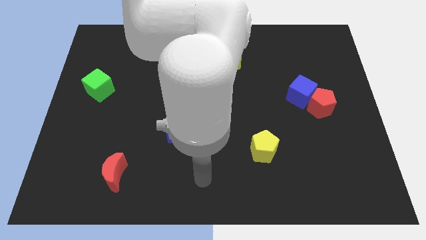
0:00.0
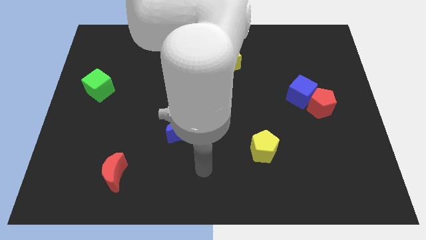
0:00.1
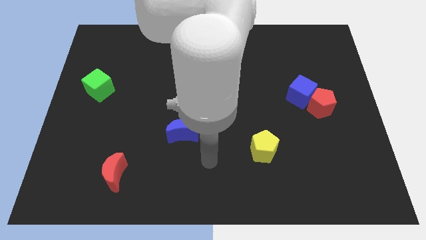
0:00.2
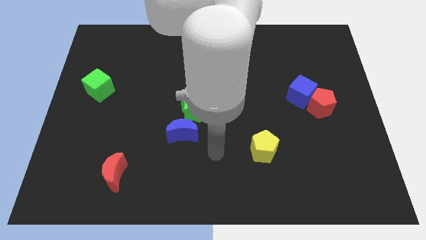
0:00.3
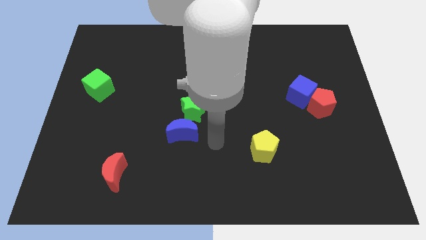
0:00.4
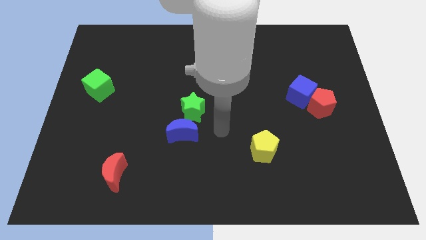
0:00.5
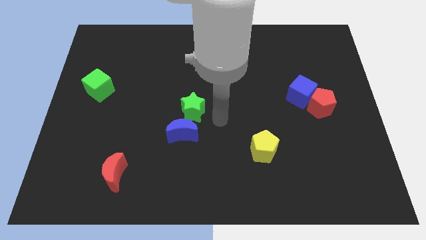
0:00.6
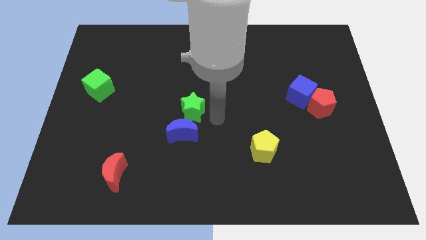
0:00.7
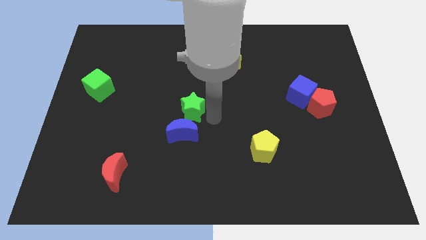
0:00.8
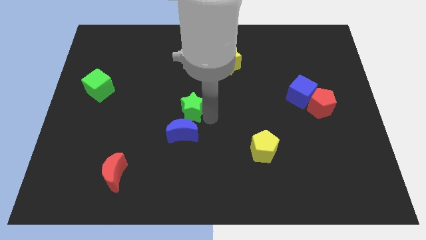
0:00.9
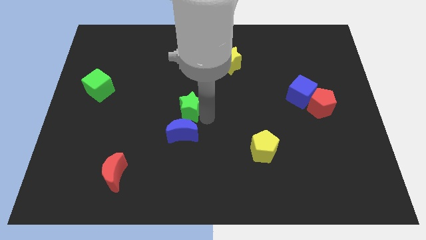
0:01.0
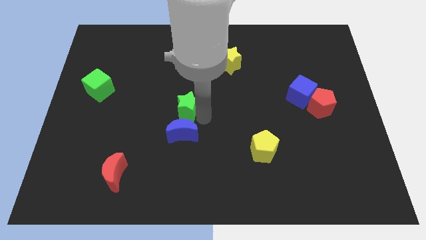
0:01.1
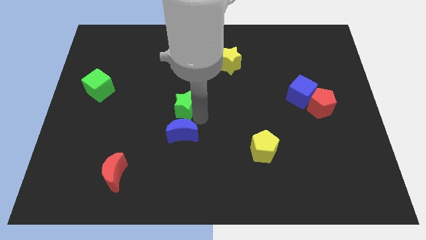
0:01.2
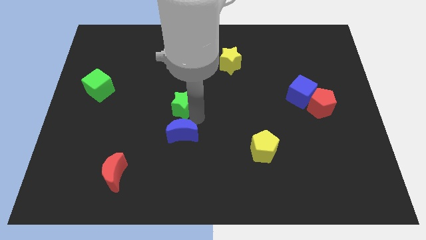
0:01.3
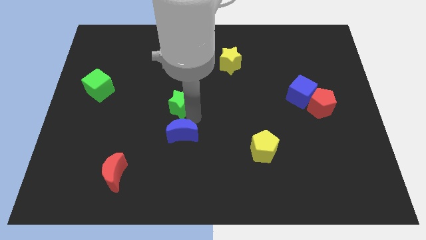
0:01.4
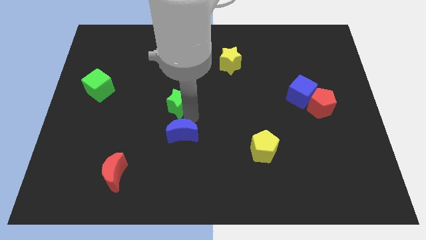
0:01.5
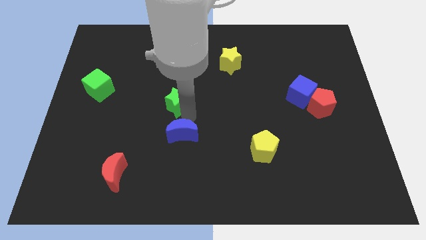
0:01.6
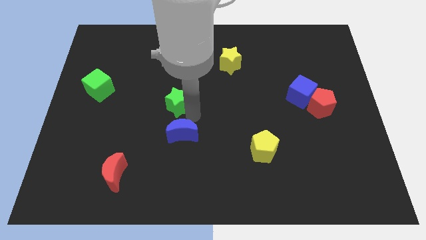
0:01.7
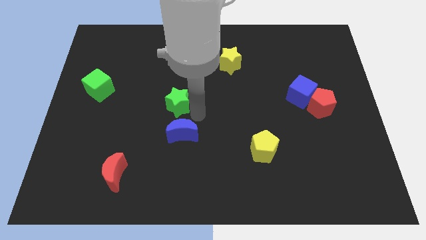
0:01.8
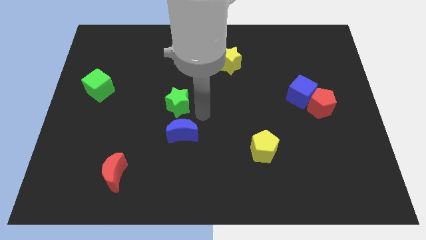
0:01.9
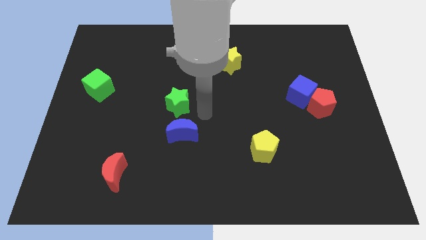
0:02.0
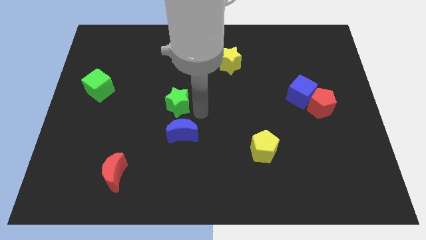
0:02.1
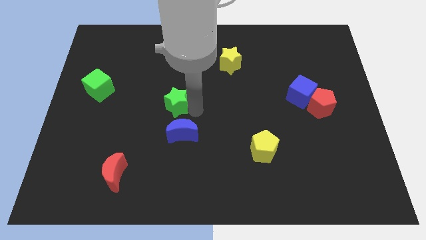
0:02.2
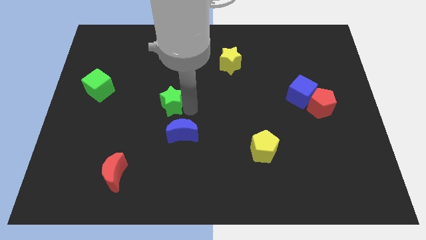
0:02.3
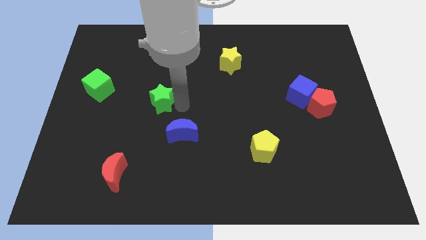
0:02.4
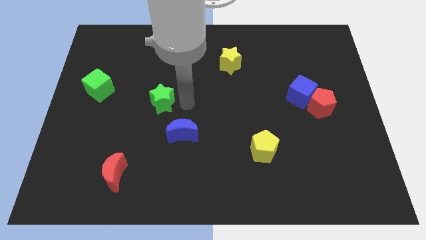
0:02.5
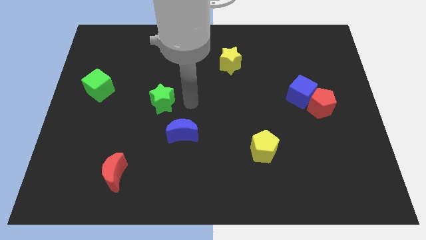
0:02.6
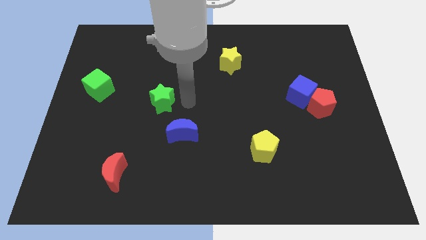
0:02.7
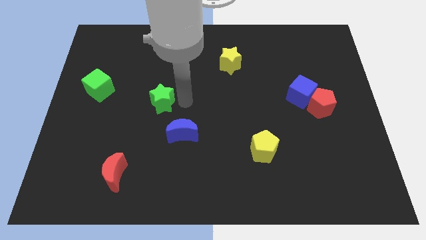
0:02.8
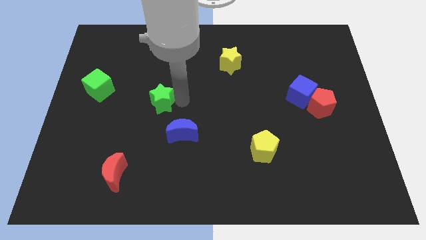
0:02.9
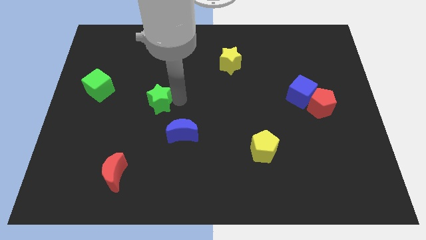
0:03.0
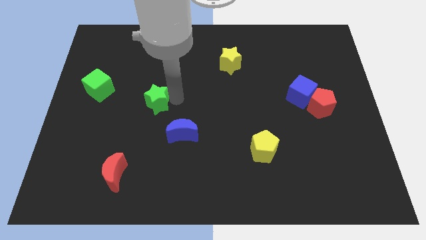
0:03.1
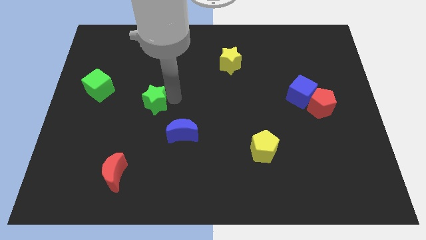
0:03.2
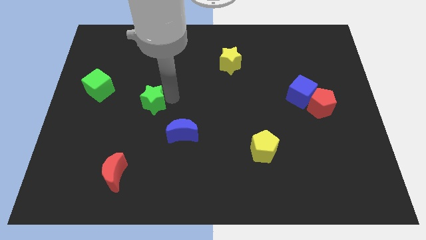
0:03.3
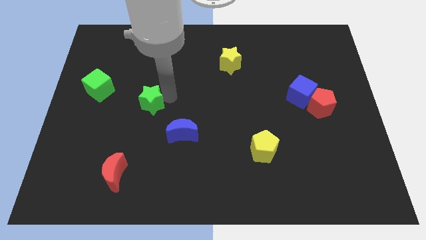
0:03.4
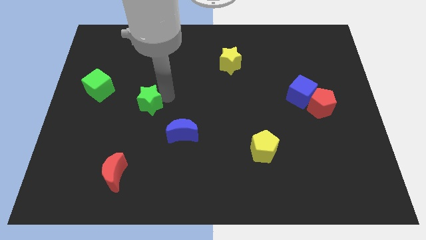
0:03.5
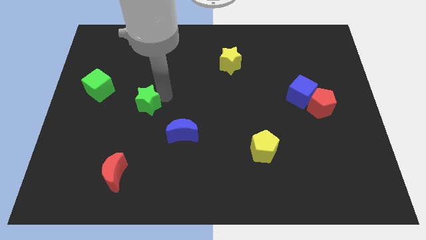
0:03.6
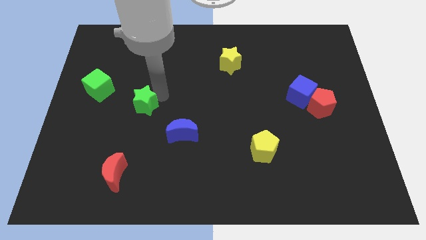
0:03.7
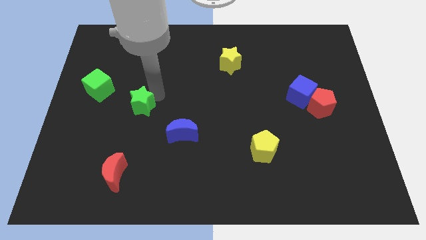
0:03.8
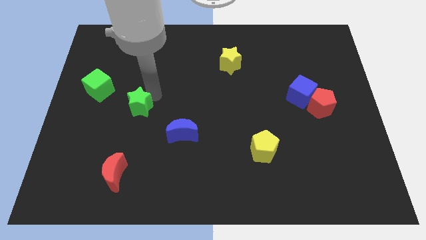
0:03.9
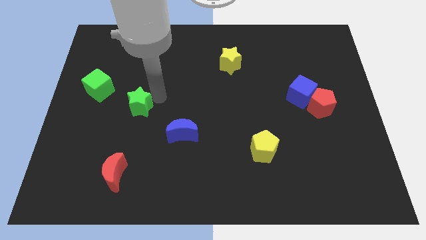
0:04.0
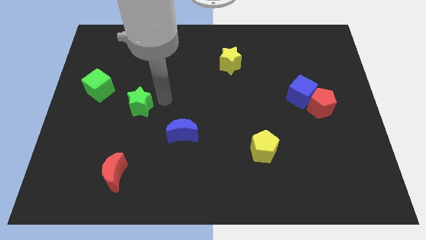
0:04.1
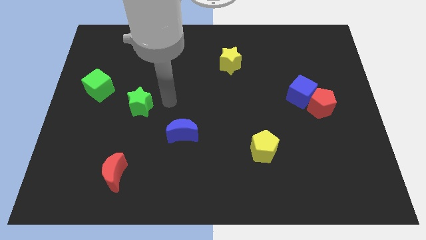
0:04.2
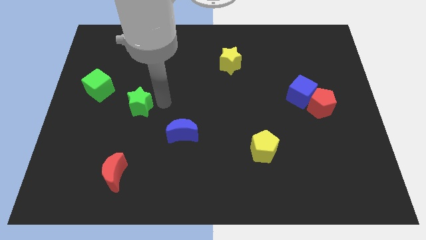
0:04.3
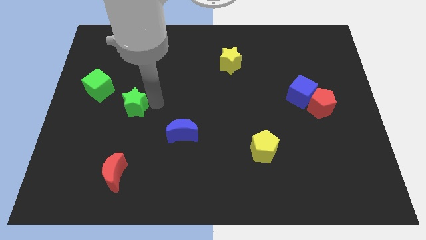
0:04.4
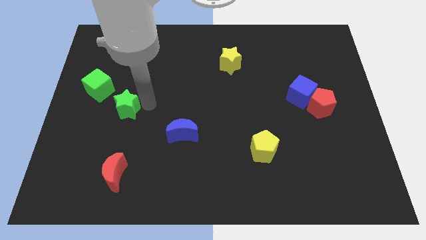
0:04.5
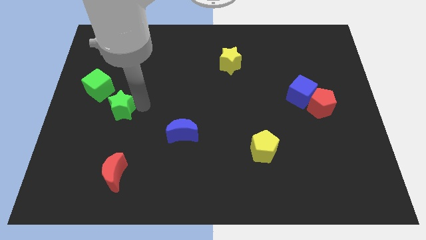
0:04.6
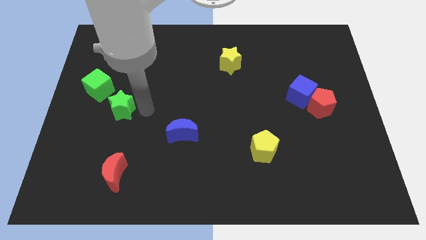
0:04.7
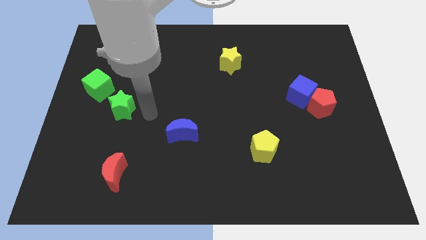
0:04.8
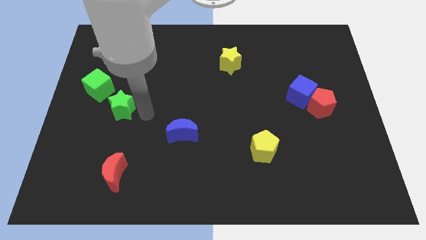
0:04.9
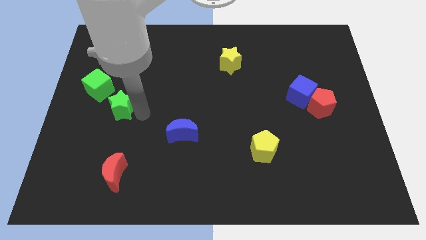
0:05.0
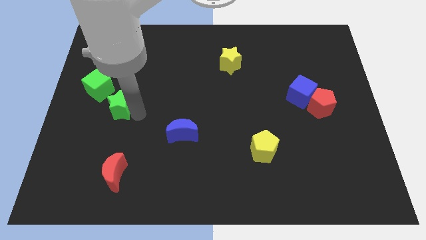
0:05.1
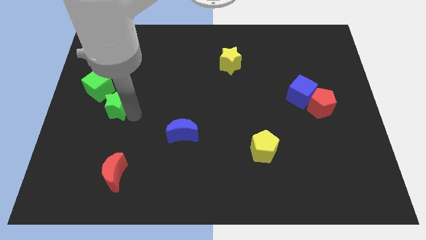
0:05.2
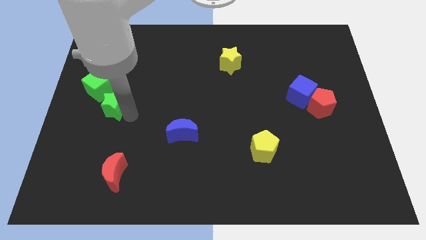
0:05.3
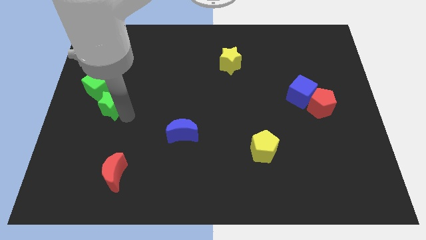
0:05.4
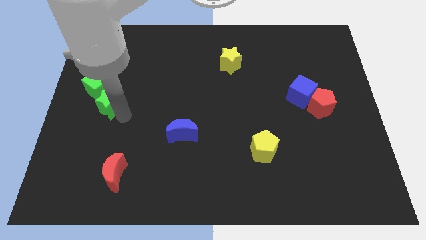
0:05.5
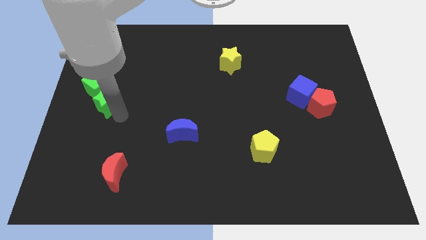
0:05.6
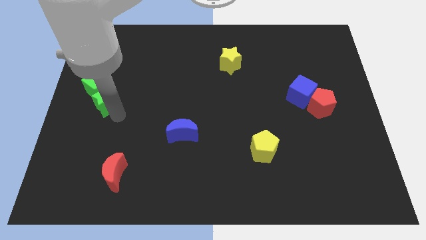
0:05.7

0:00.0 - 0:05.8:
push the green star to the left side

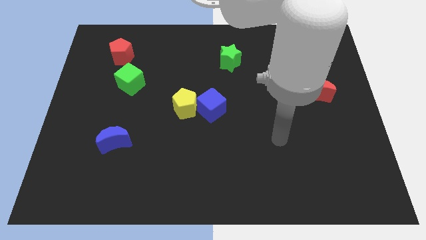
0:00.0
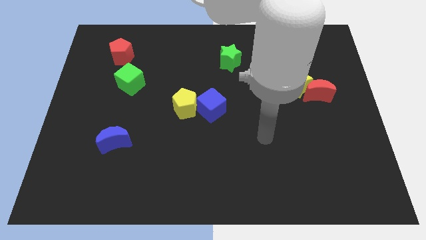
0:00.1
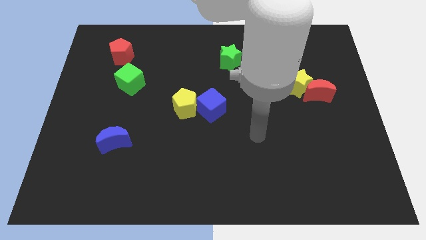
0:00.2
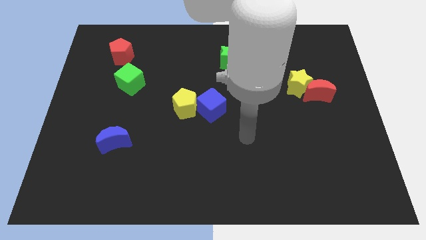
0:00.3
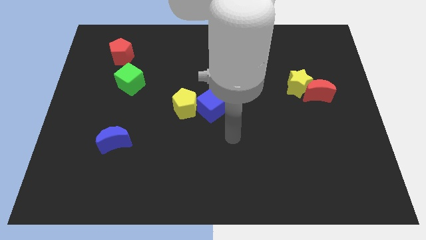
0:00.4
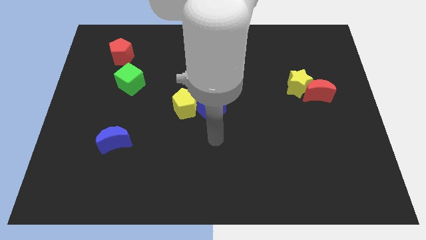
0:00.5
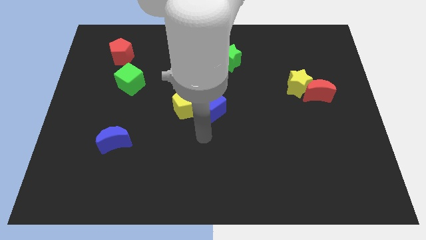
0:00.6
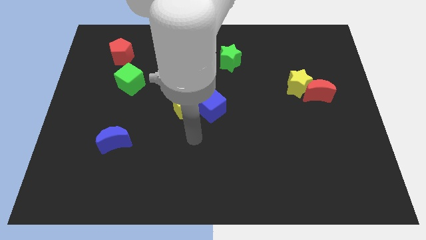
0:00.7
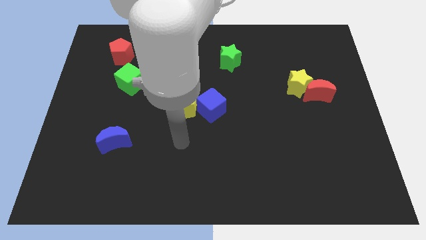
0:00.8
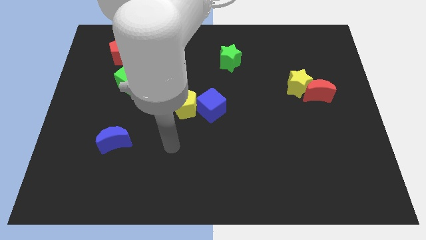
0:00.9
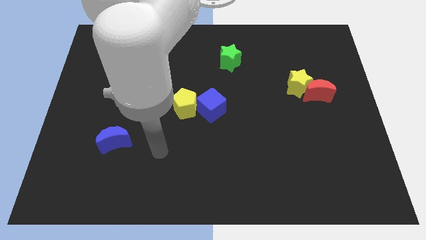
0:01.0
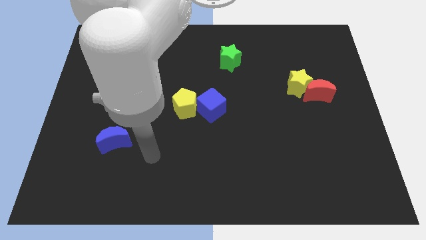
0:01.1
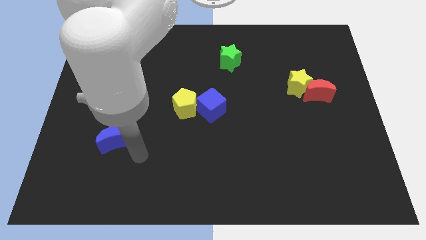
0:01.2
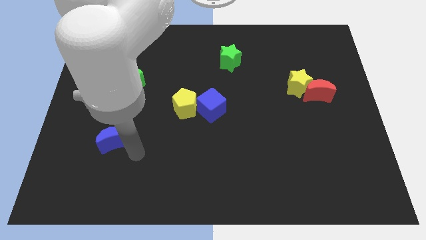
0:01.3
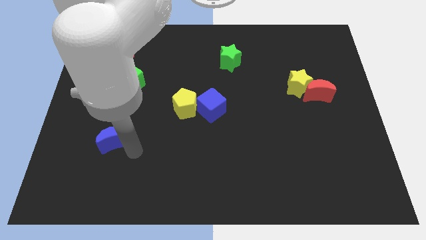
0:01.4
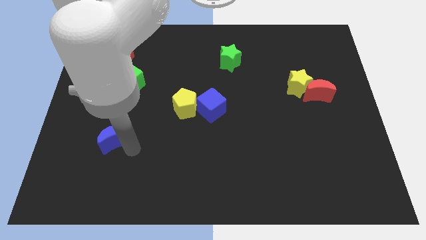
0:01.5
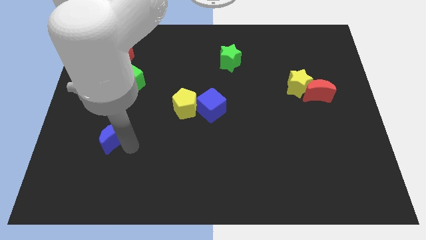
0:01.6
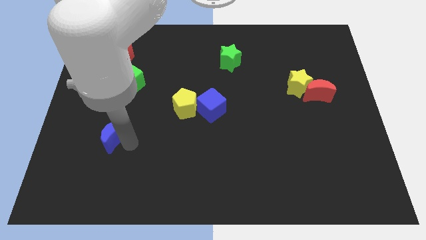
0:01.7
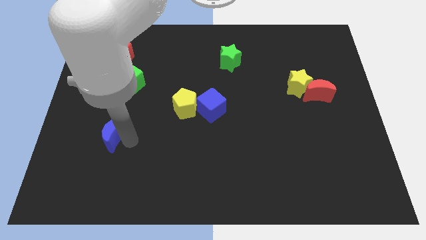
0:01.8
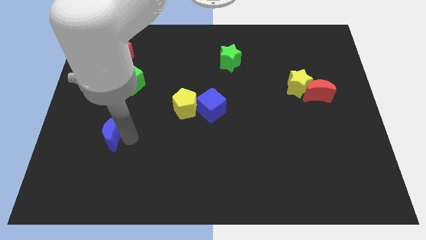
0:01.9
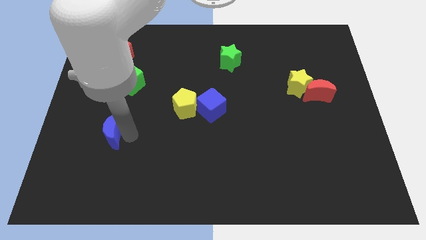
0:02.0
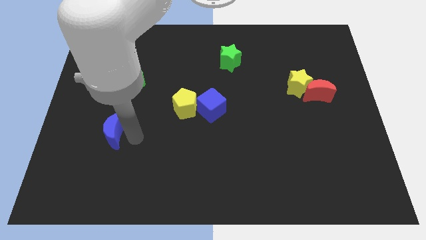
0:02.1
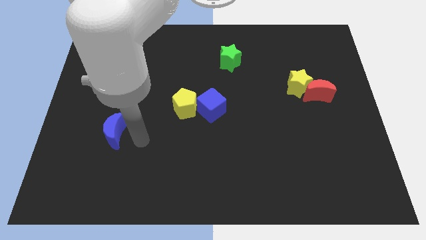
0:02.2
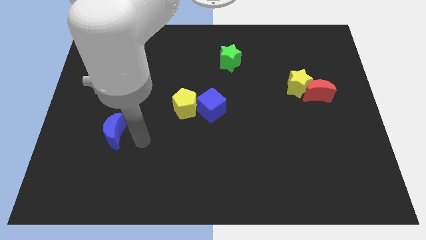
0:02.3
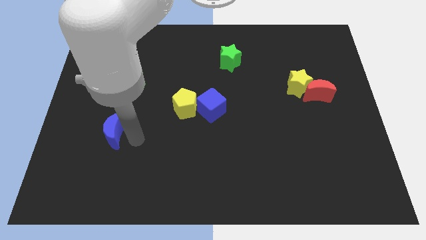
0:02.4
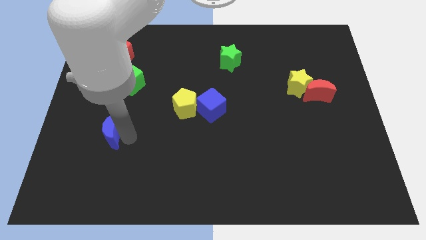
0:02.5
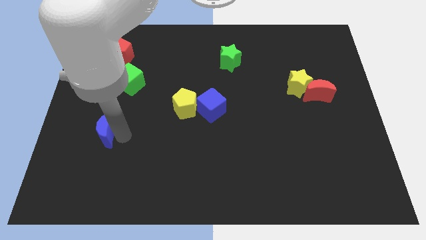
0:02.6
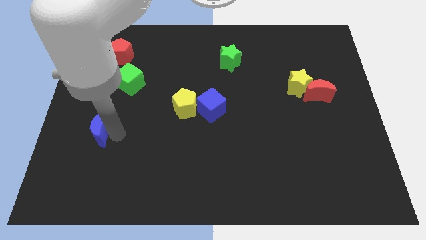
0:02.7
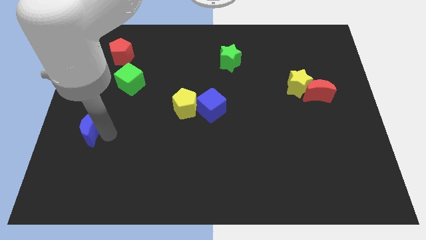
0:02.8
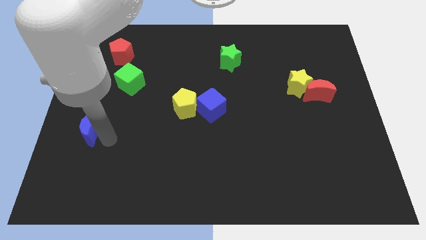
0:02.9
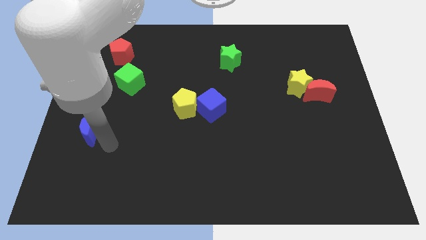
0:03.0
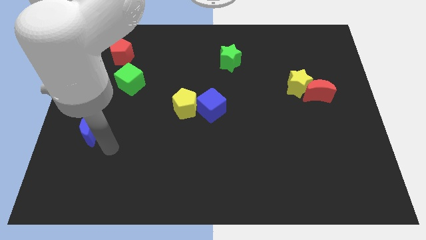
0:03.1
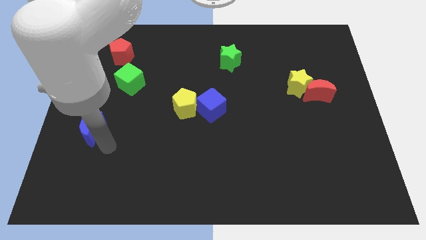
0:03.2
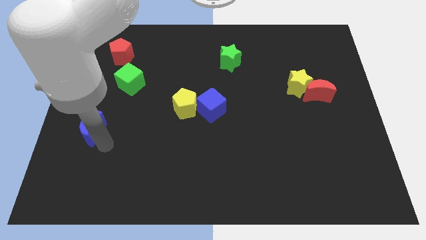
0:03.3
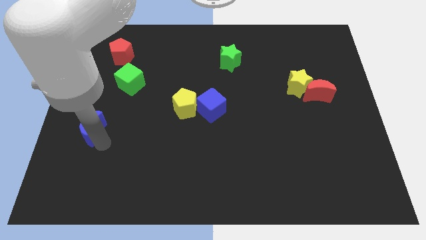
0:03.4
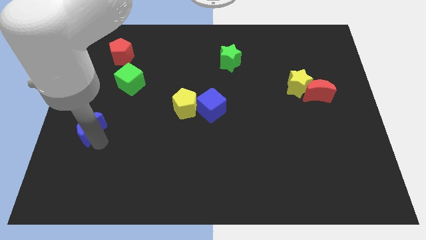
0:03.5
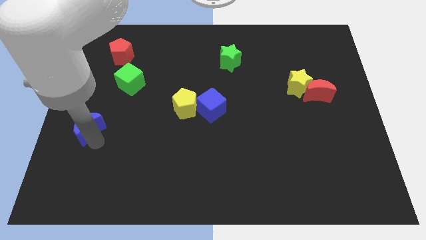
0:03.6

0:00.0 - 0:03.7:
slide the blue moon to the center left
